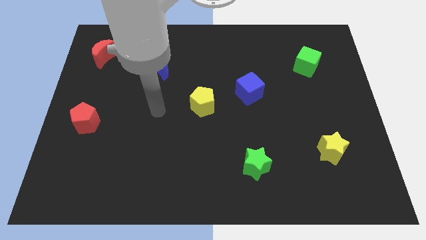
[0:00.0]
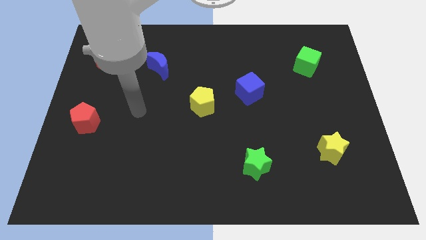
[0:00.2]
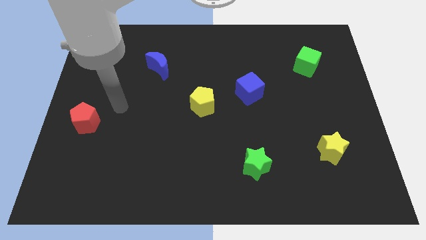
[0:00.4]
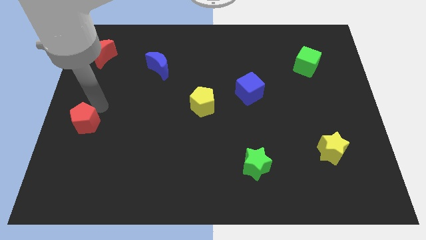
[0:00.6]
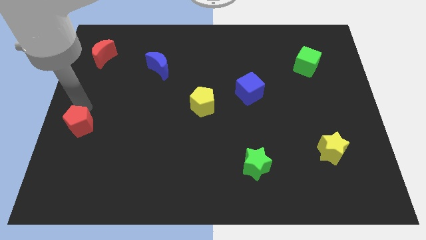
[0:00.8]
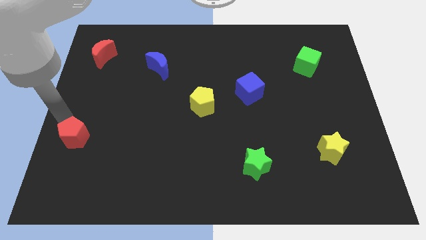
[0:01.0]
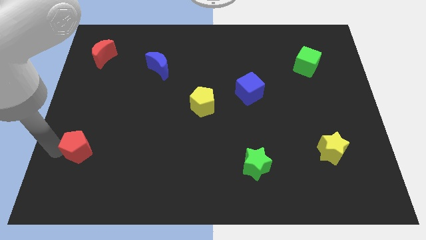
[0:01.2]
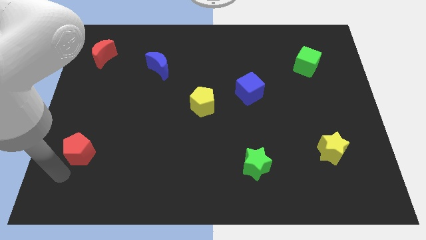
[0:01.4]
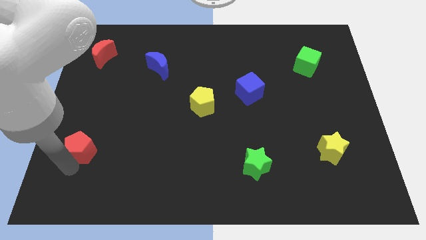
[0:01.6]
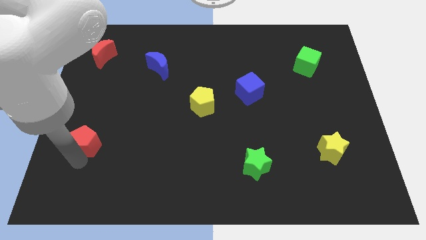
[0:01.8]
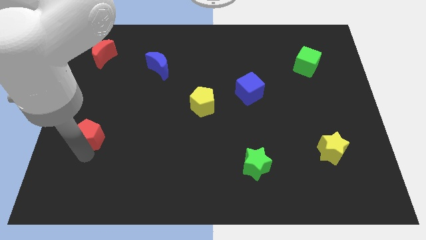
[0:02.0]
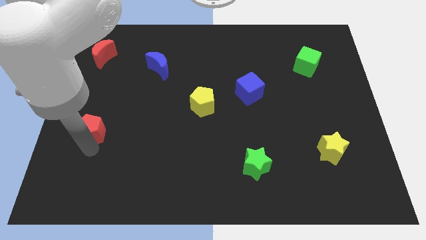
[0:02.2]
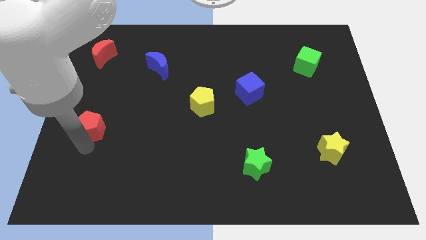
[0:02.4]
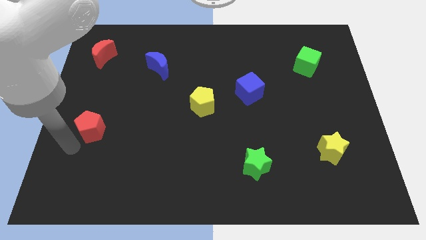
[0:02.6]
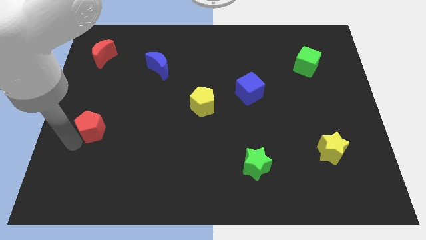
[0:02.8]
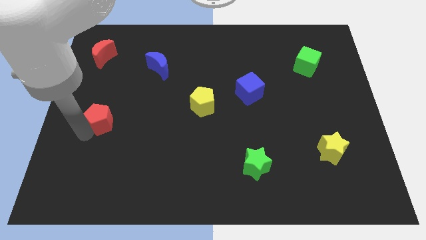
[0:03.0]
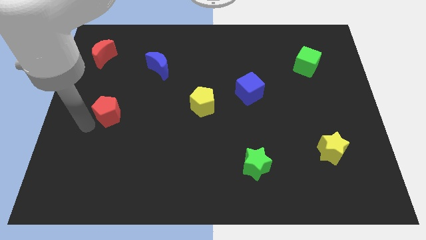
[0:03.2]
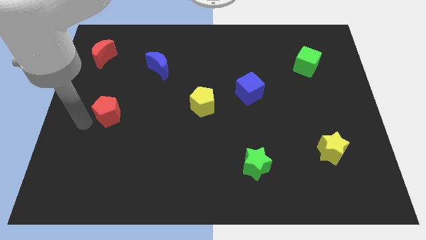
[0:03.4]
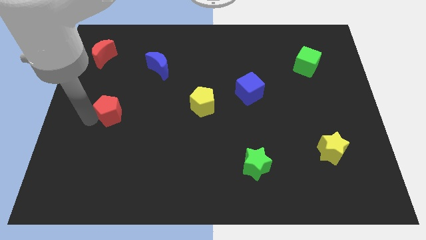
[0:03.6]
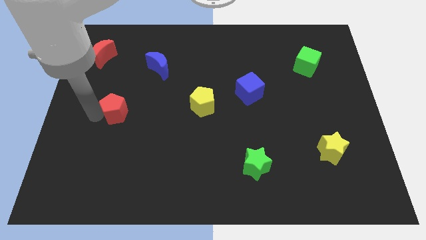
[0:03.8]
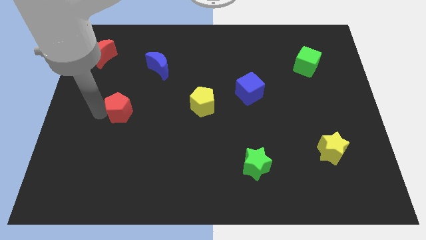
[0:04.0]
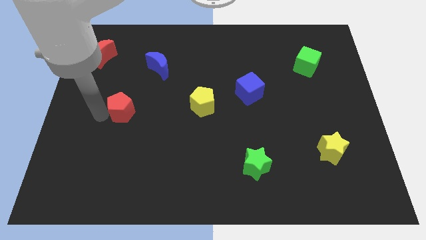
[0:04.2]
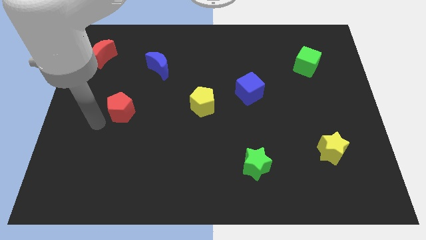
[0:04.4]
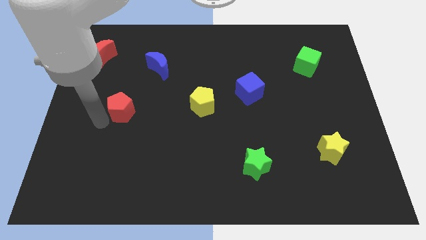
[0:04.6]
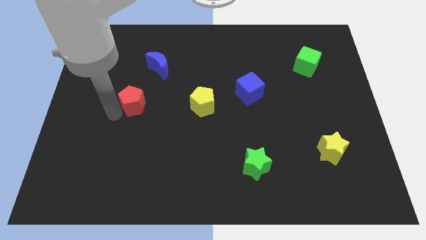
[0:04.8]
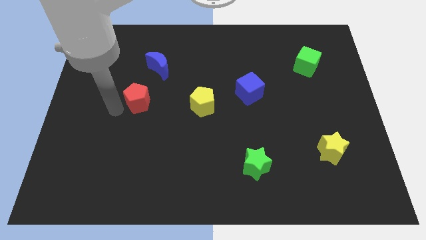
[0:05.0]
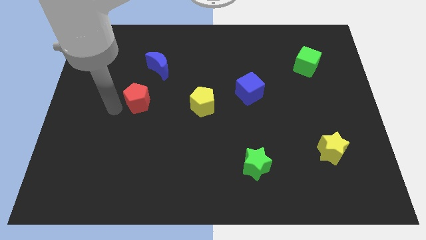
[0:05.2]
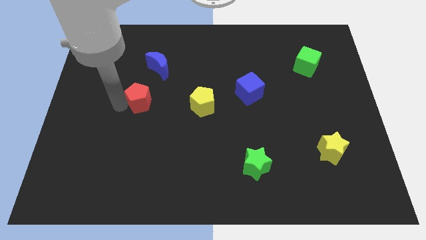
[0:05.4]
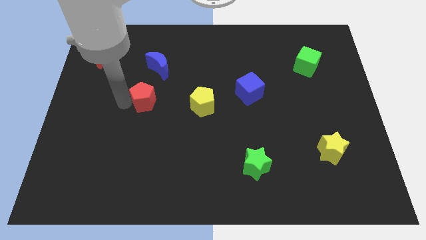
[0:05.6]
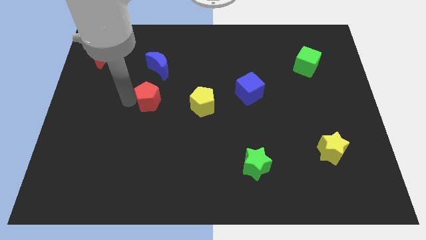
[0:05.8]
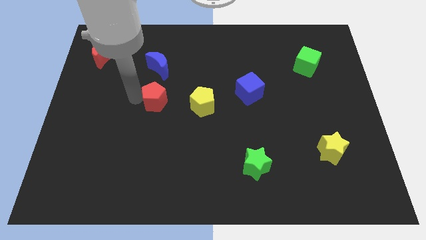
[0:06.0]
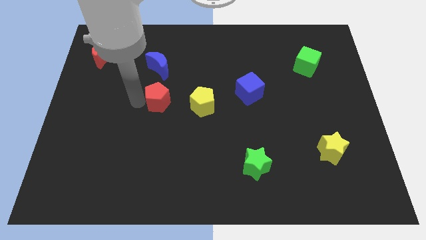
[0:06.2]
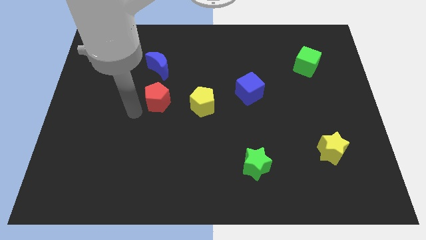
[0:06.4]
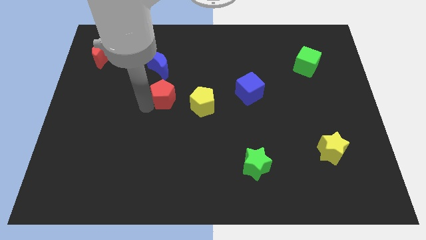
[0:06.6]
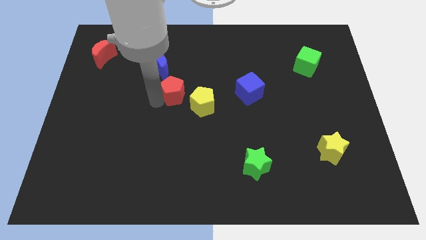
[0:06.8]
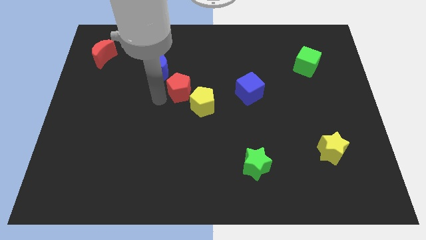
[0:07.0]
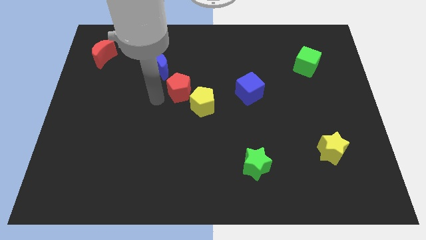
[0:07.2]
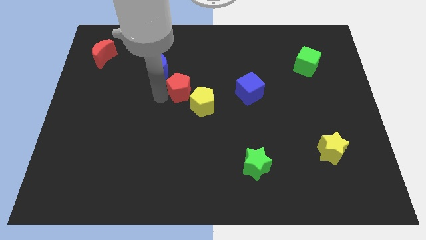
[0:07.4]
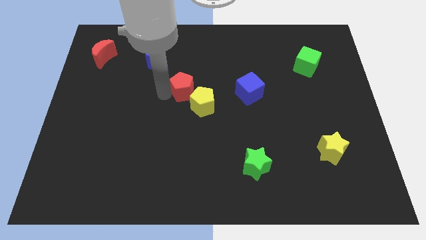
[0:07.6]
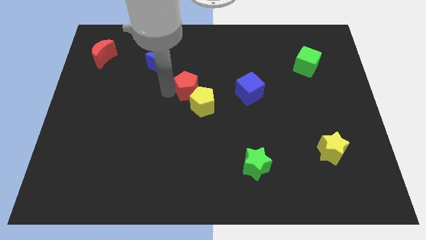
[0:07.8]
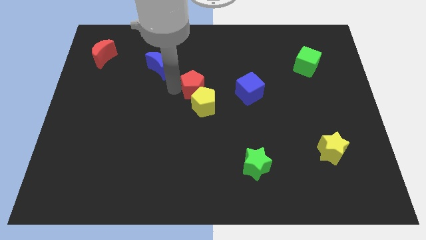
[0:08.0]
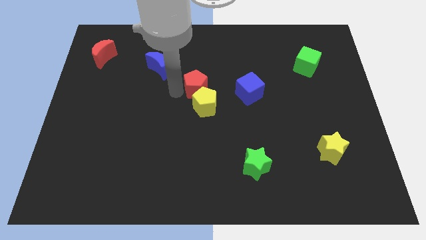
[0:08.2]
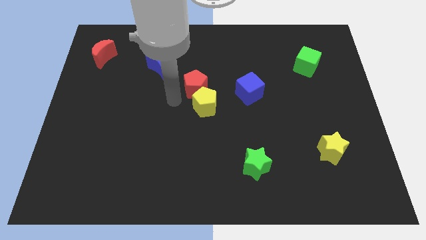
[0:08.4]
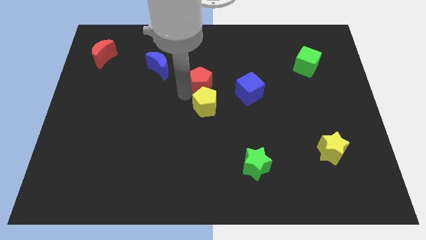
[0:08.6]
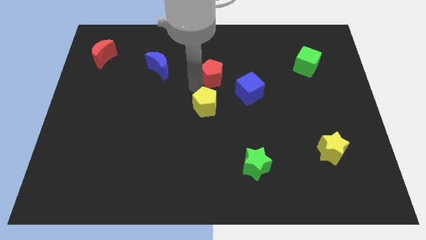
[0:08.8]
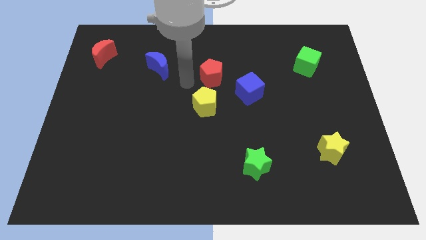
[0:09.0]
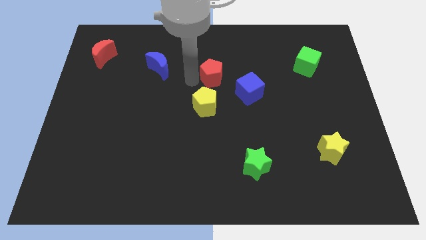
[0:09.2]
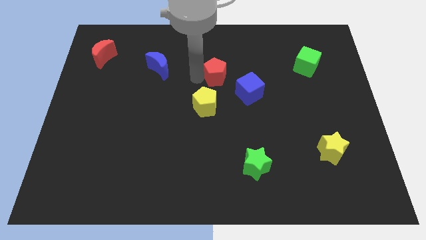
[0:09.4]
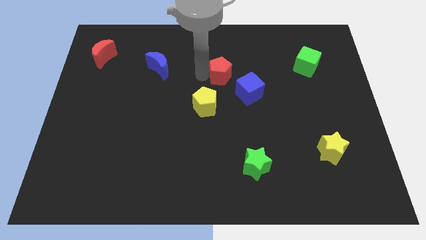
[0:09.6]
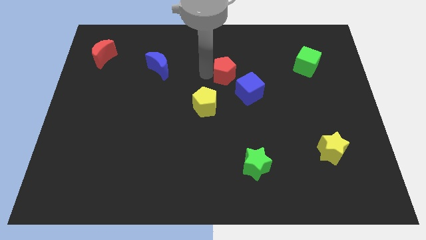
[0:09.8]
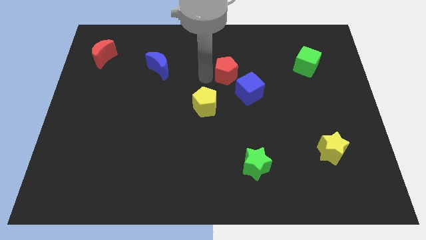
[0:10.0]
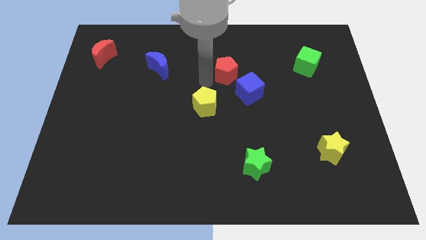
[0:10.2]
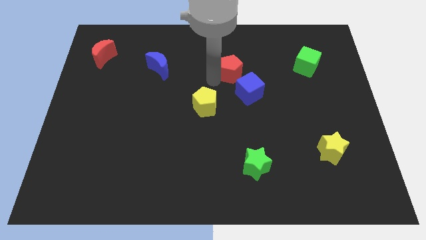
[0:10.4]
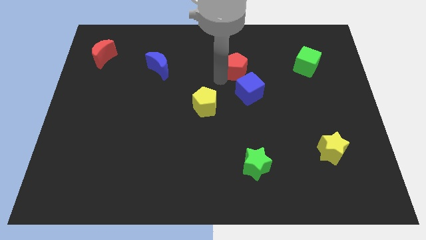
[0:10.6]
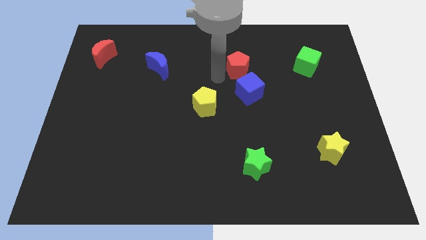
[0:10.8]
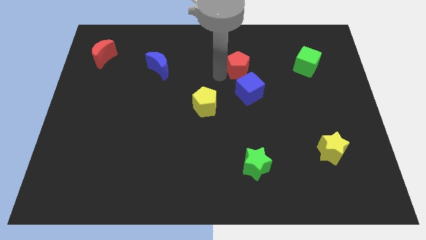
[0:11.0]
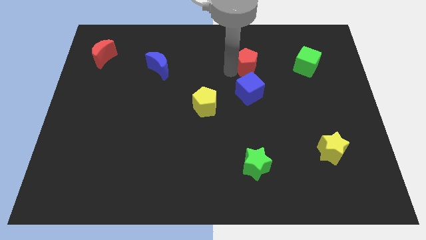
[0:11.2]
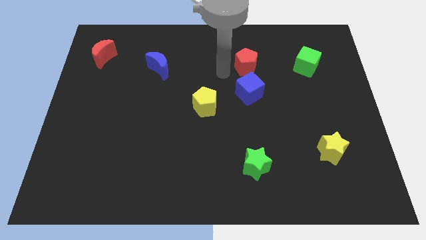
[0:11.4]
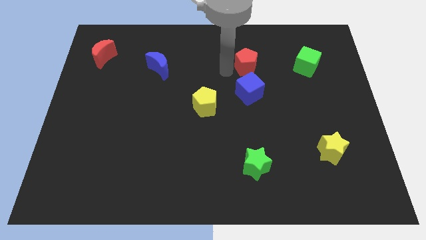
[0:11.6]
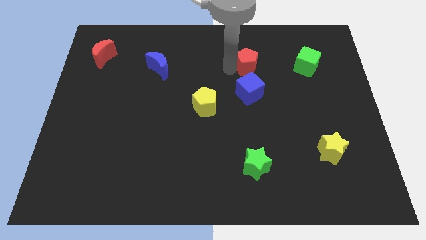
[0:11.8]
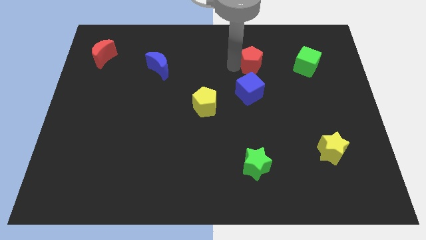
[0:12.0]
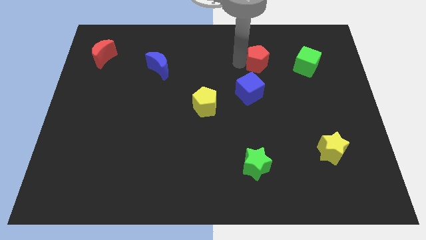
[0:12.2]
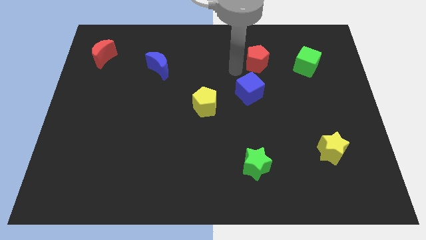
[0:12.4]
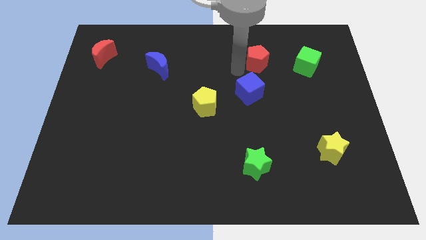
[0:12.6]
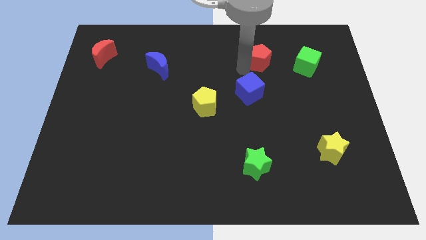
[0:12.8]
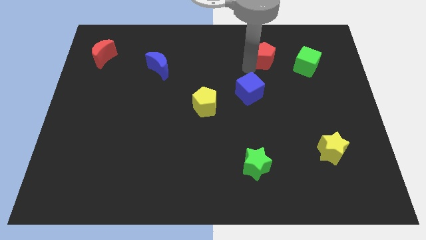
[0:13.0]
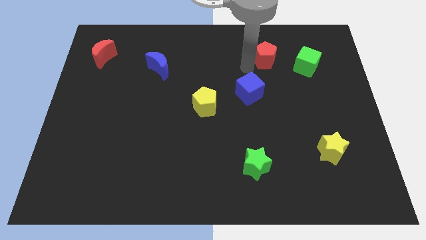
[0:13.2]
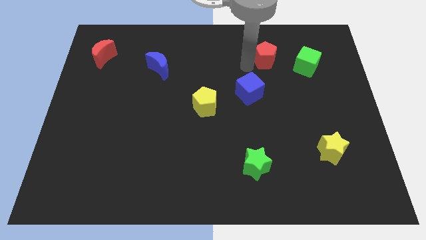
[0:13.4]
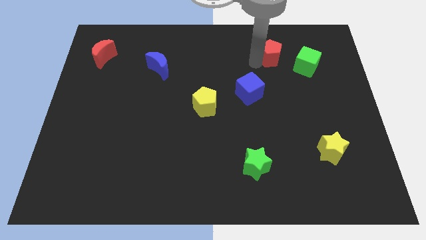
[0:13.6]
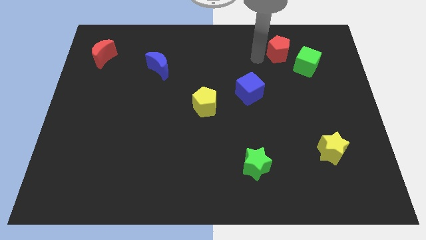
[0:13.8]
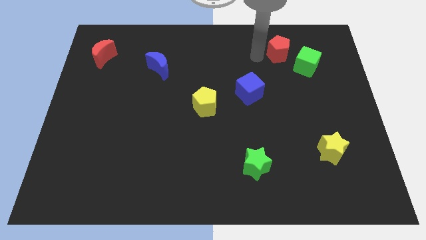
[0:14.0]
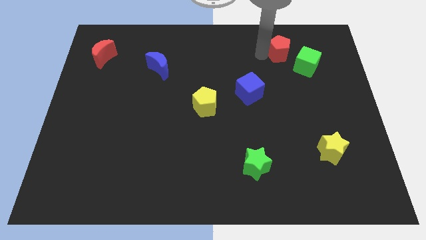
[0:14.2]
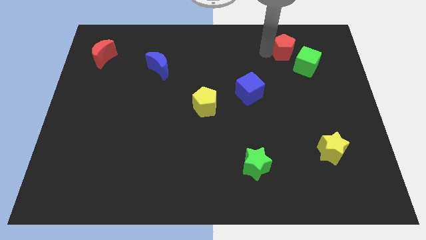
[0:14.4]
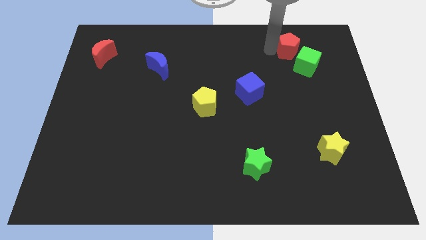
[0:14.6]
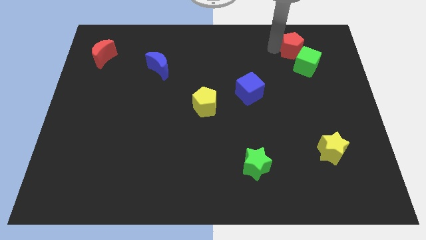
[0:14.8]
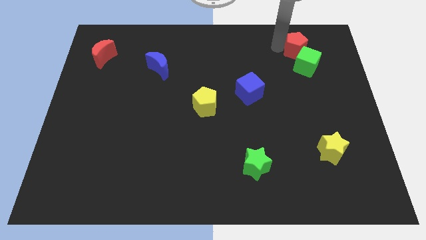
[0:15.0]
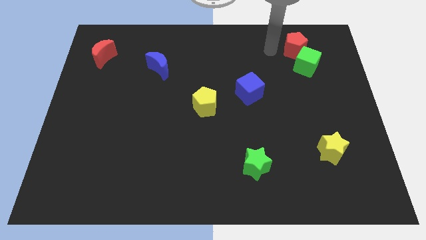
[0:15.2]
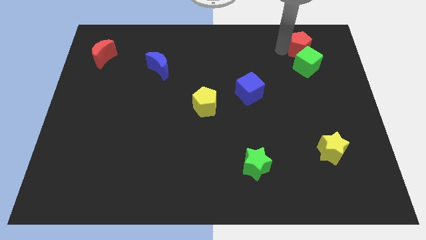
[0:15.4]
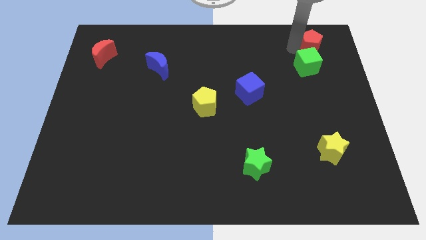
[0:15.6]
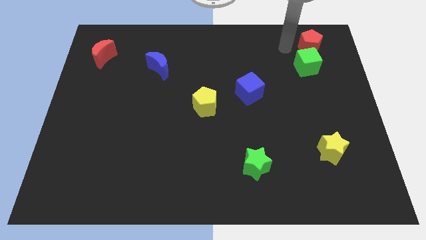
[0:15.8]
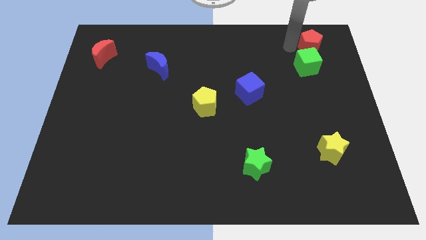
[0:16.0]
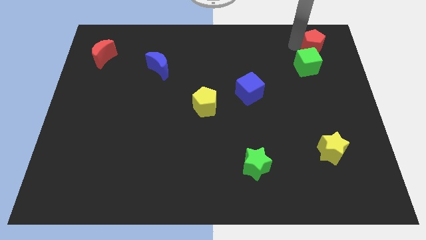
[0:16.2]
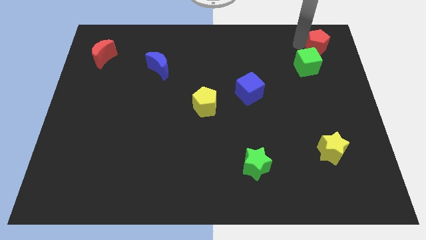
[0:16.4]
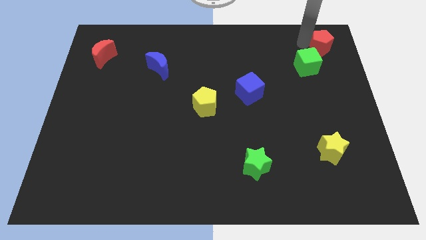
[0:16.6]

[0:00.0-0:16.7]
slide the red pentagon to the top right corner
